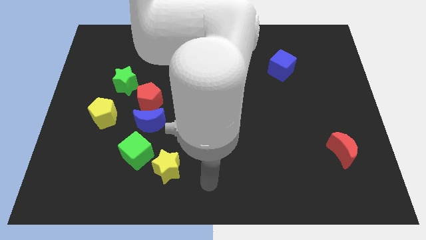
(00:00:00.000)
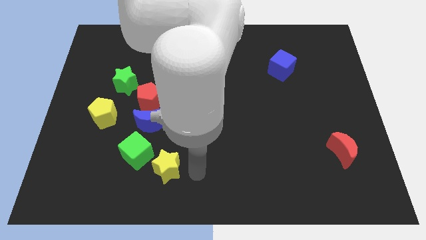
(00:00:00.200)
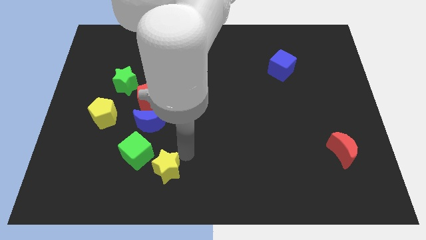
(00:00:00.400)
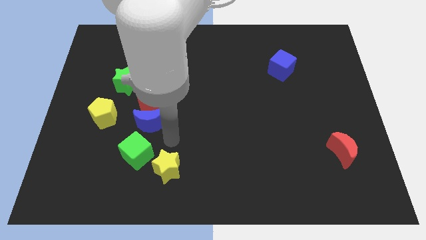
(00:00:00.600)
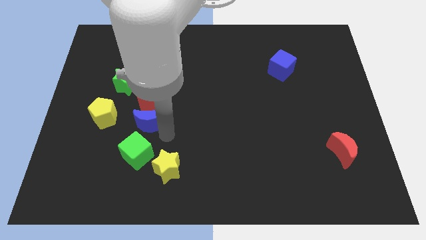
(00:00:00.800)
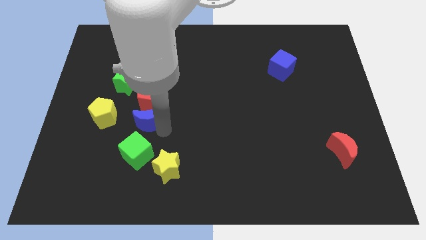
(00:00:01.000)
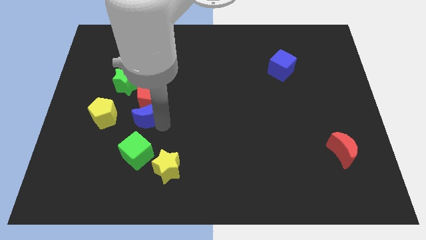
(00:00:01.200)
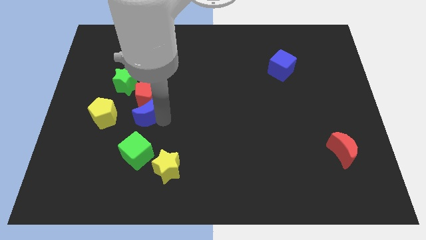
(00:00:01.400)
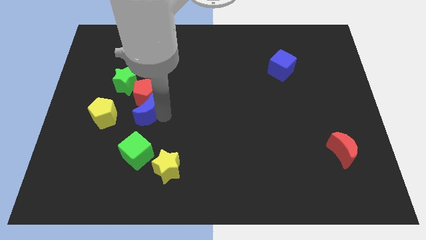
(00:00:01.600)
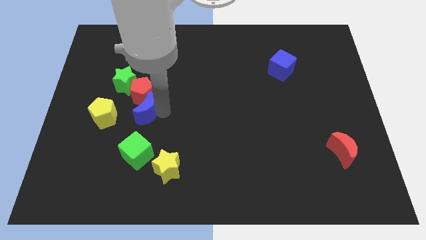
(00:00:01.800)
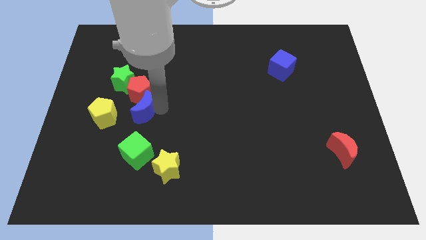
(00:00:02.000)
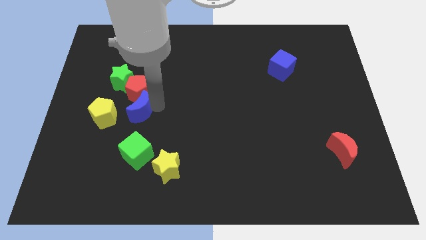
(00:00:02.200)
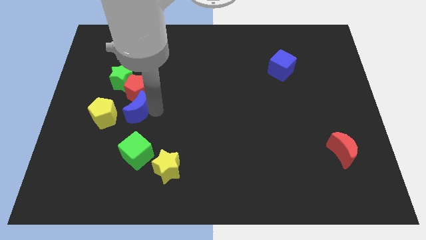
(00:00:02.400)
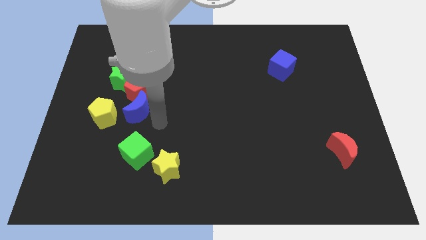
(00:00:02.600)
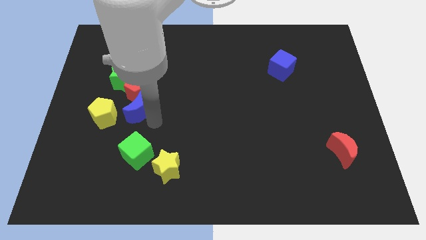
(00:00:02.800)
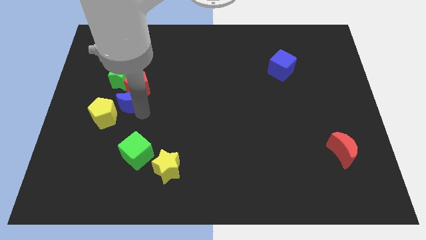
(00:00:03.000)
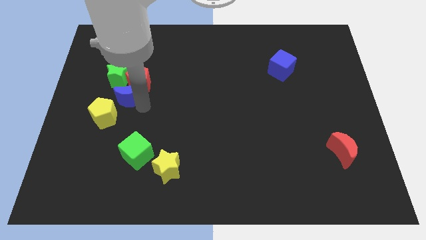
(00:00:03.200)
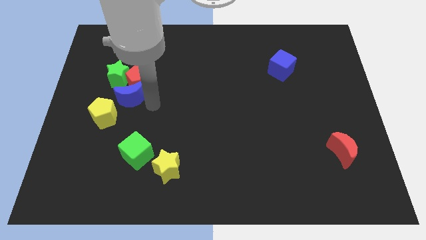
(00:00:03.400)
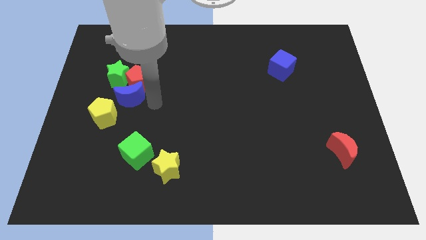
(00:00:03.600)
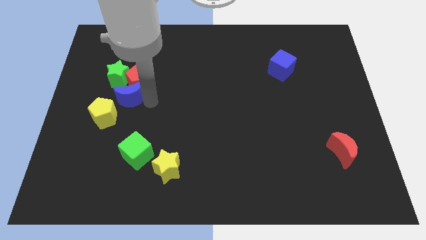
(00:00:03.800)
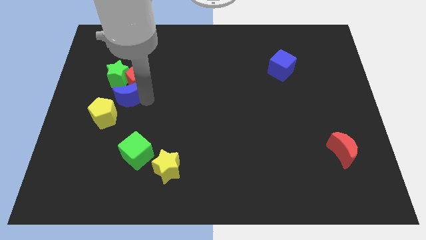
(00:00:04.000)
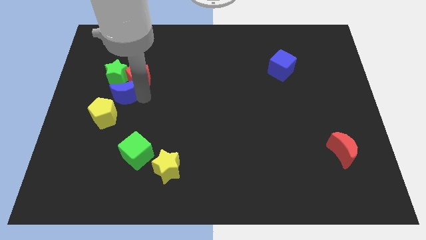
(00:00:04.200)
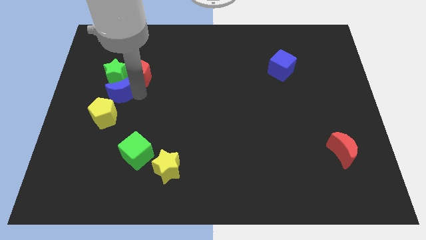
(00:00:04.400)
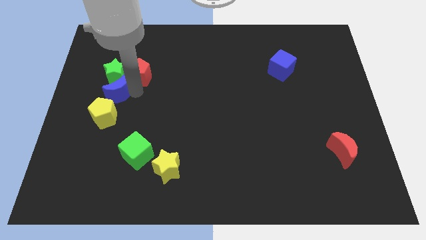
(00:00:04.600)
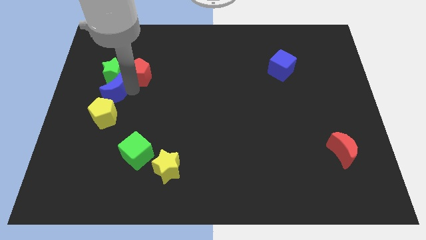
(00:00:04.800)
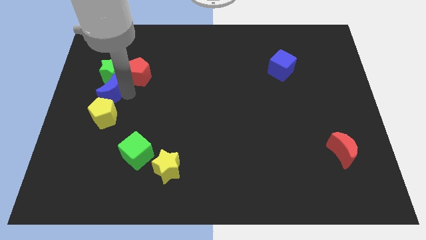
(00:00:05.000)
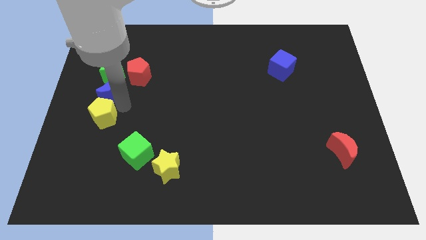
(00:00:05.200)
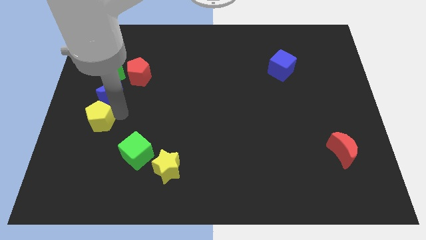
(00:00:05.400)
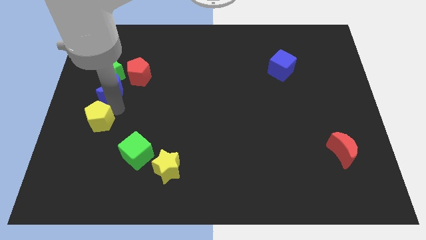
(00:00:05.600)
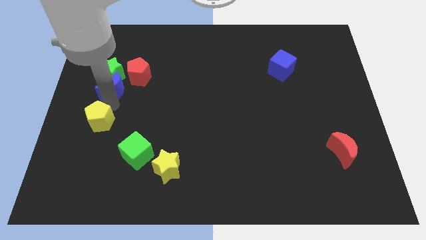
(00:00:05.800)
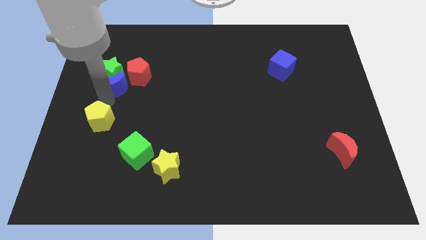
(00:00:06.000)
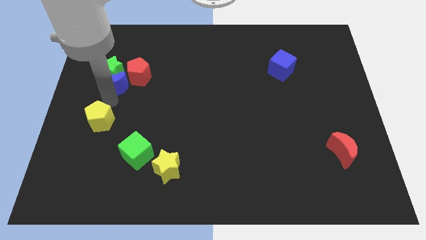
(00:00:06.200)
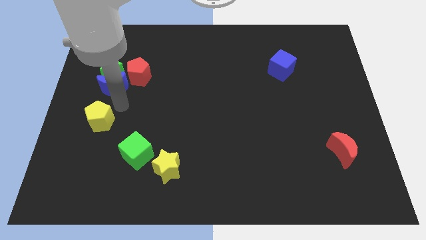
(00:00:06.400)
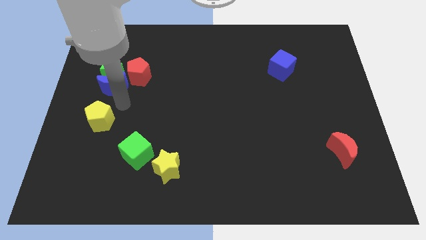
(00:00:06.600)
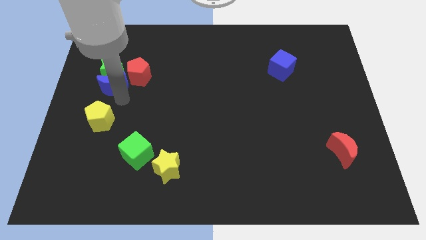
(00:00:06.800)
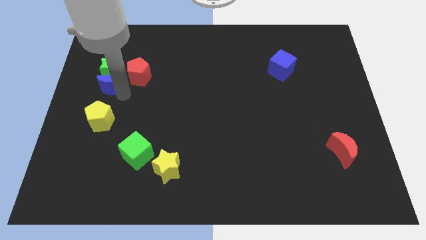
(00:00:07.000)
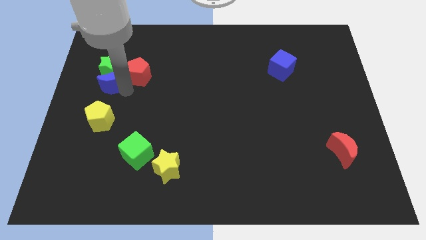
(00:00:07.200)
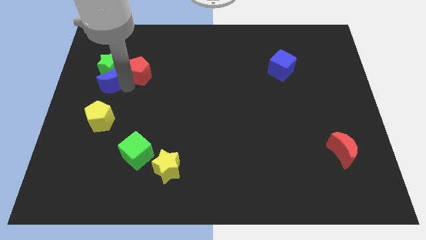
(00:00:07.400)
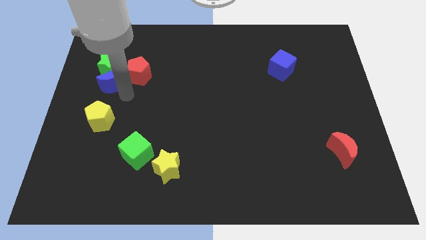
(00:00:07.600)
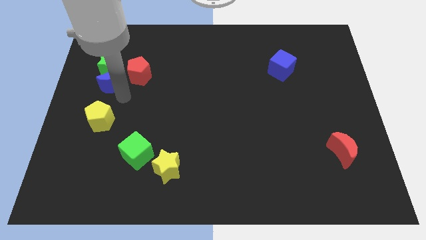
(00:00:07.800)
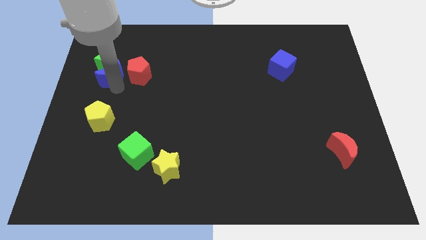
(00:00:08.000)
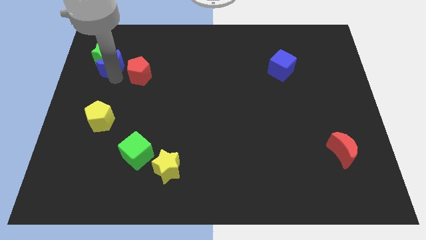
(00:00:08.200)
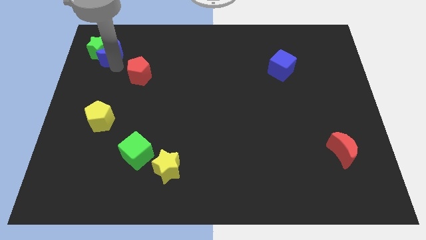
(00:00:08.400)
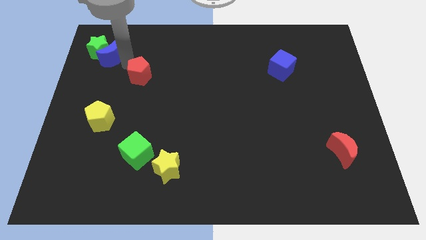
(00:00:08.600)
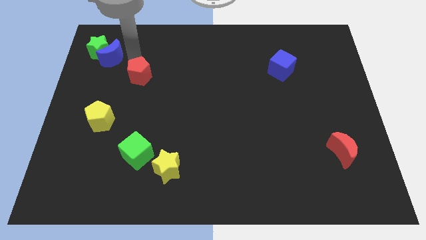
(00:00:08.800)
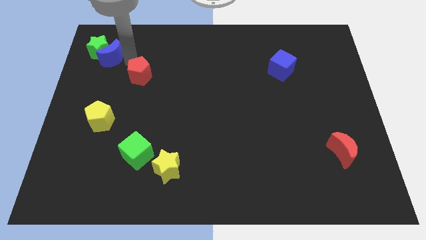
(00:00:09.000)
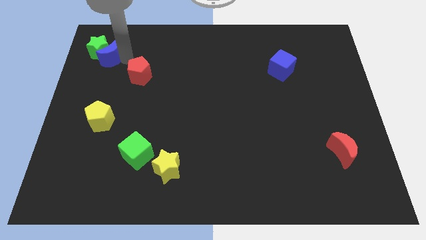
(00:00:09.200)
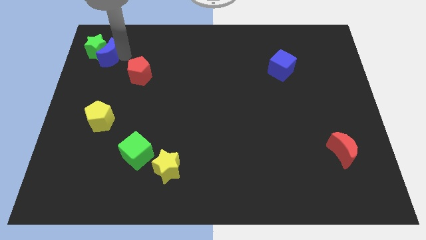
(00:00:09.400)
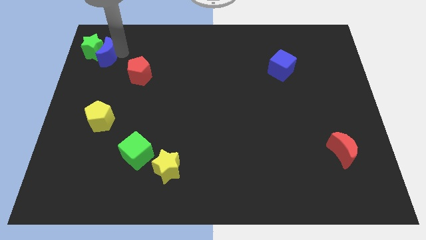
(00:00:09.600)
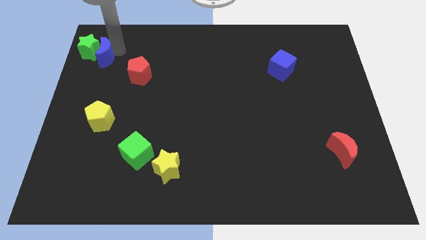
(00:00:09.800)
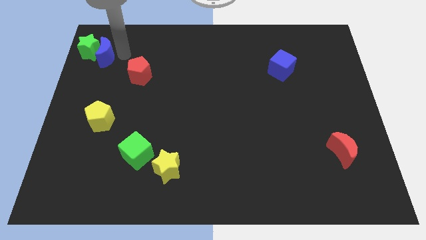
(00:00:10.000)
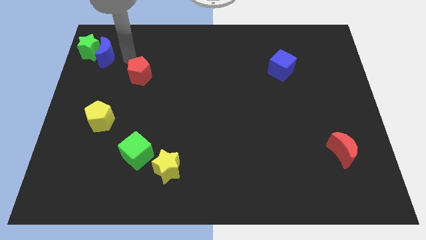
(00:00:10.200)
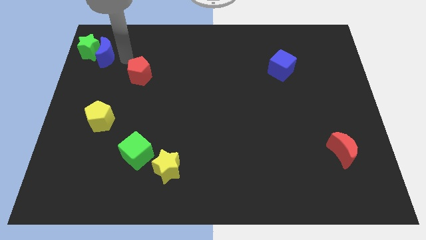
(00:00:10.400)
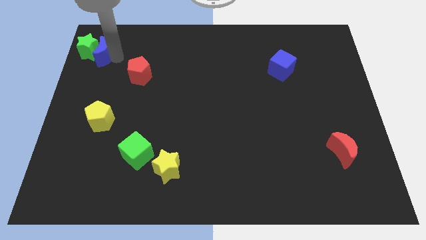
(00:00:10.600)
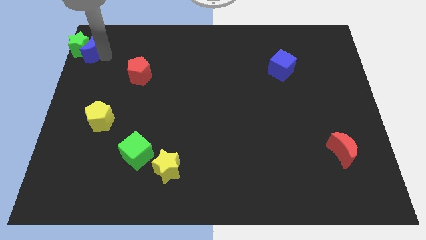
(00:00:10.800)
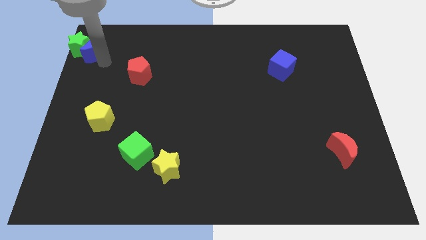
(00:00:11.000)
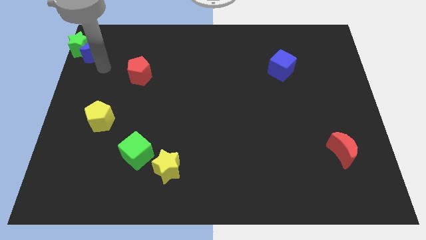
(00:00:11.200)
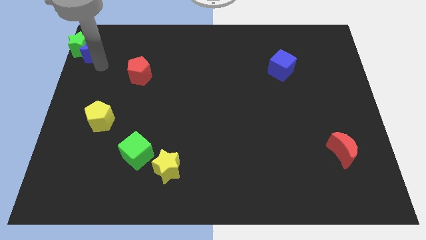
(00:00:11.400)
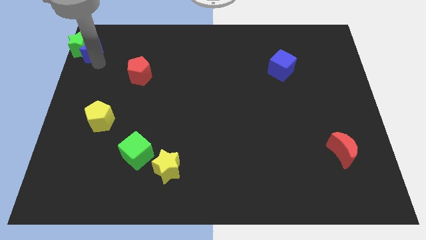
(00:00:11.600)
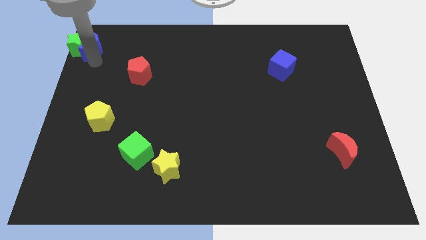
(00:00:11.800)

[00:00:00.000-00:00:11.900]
push the blue moon to the top left
